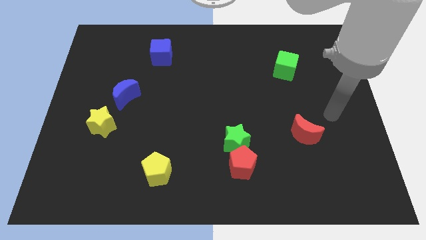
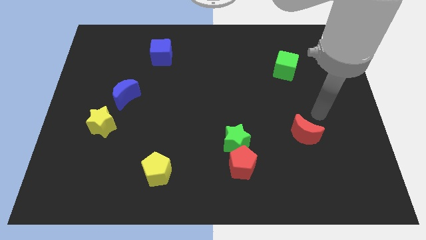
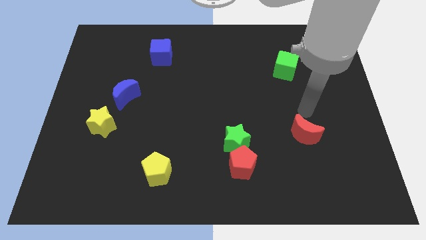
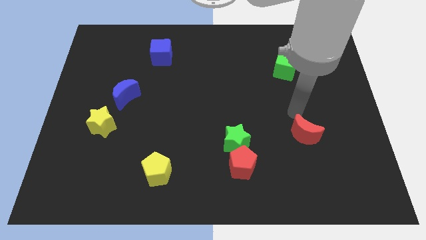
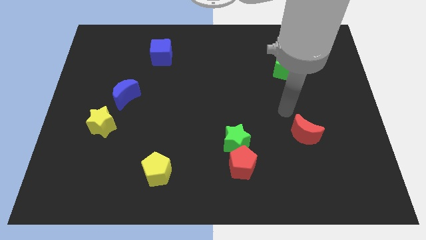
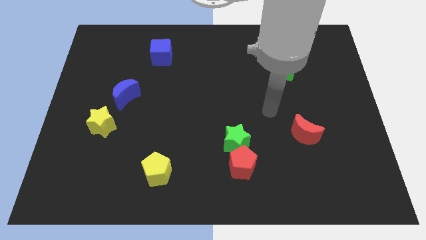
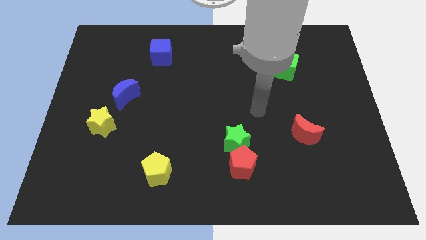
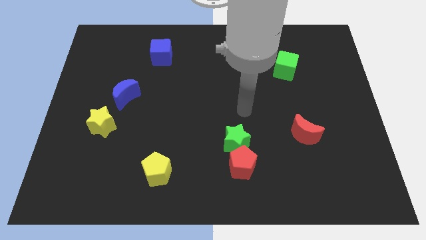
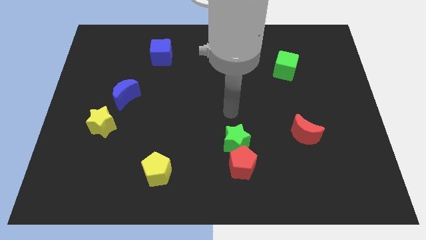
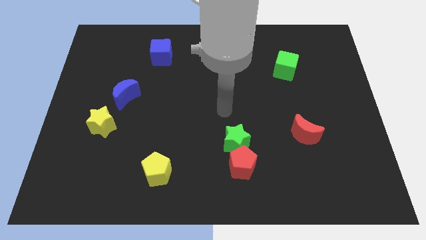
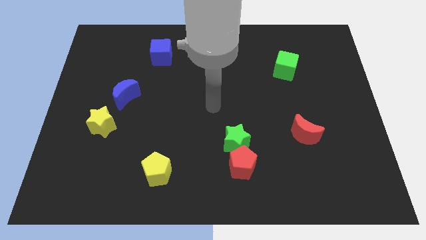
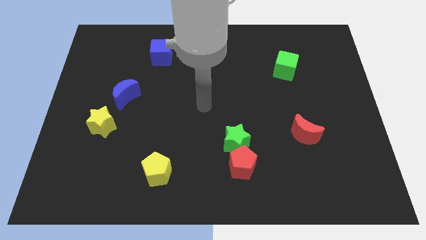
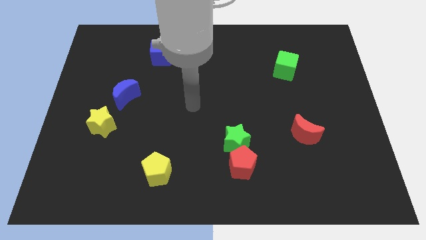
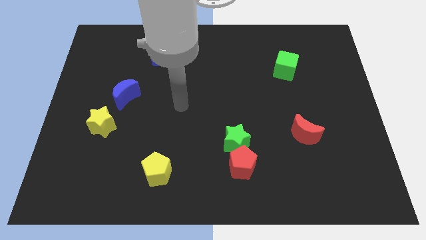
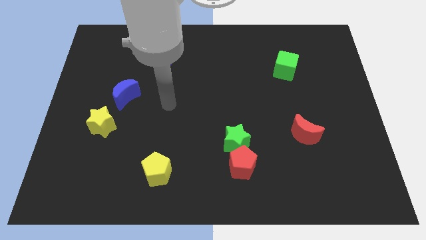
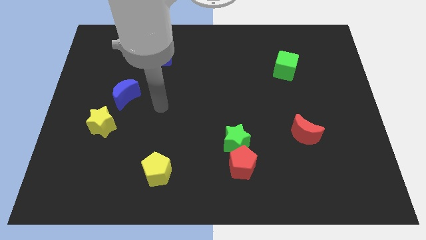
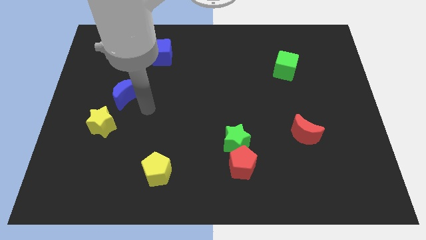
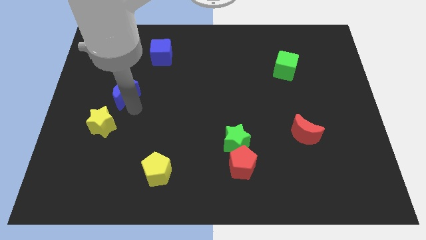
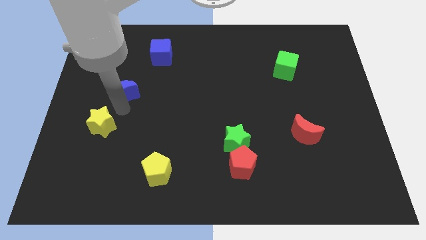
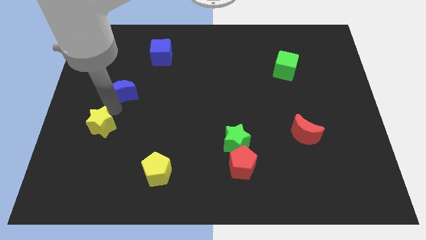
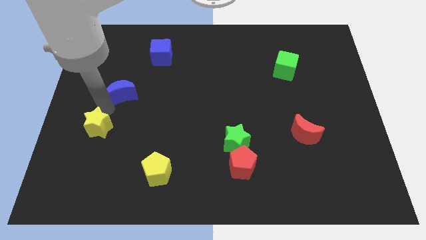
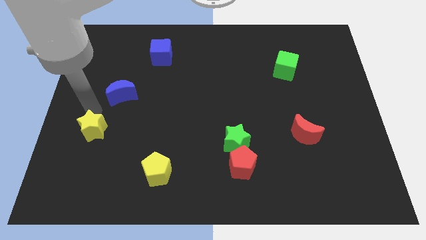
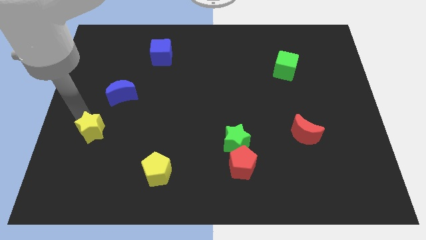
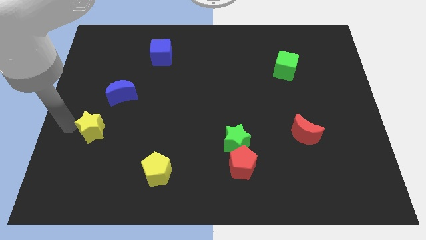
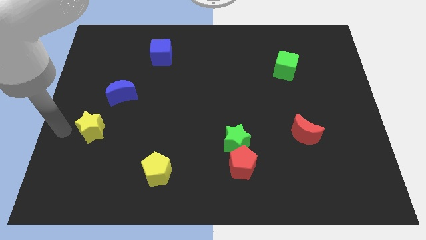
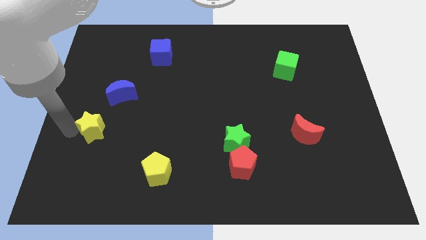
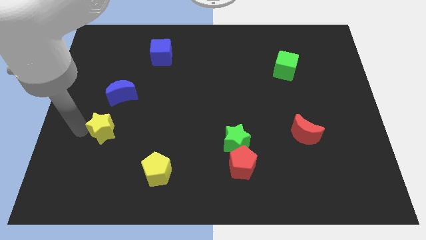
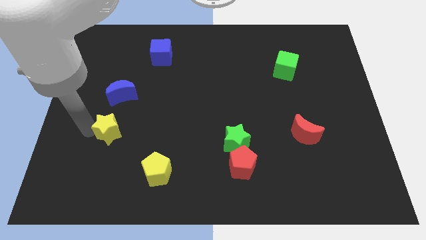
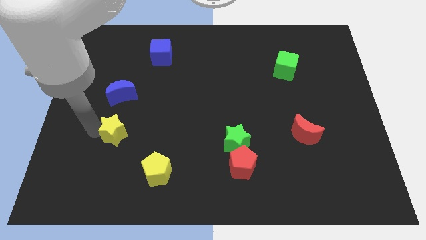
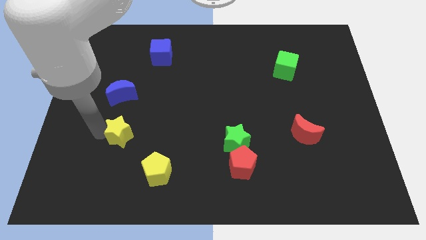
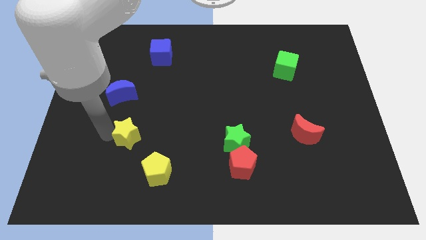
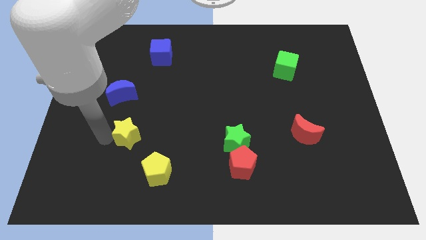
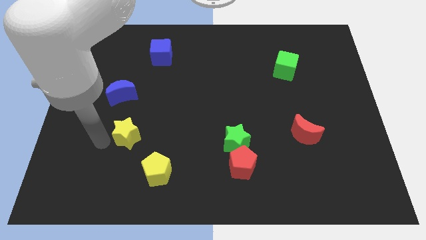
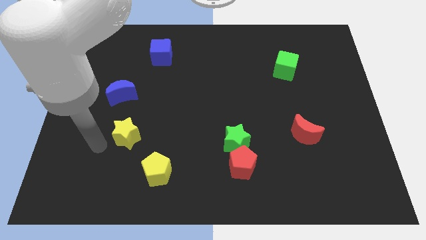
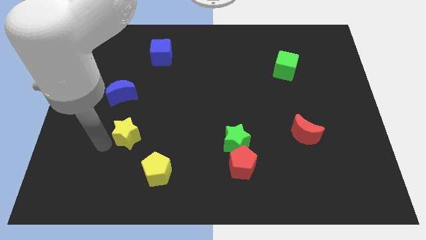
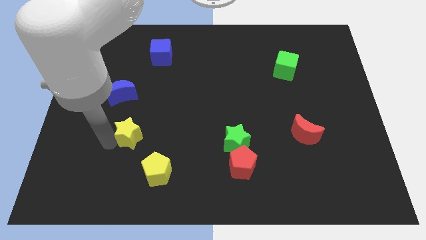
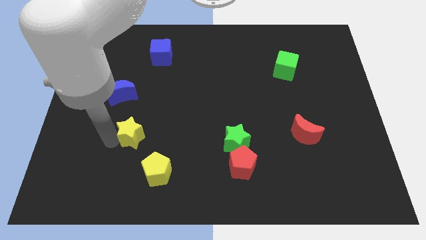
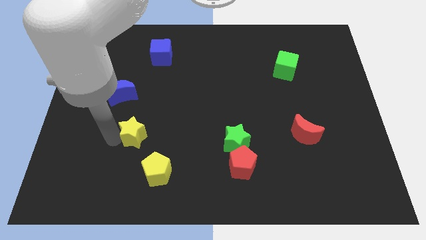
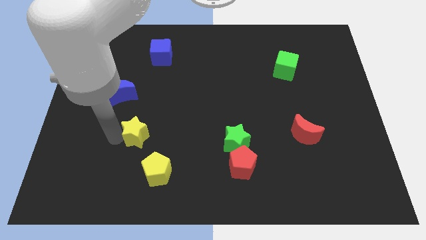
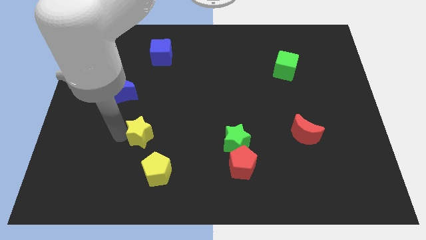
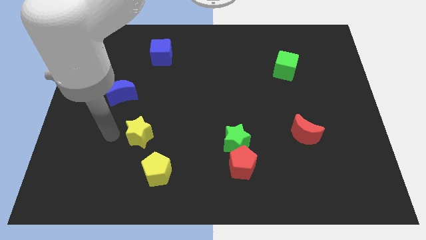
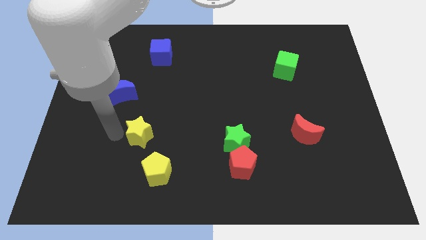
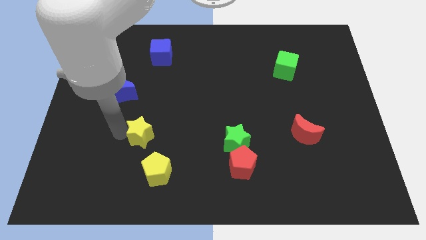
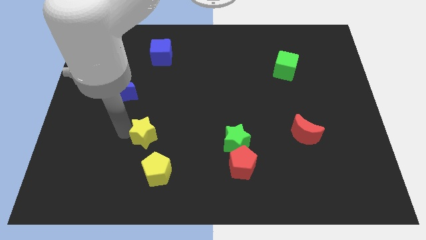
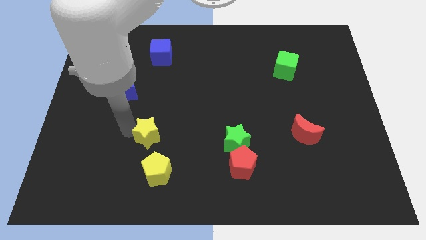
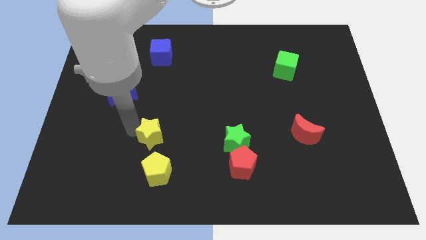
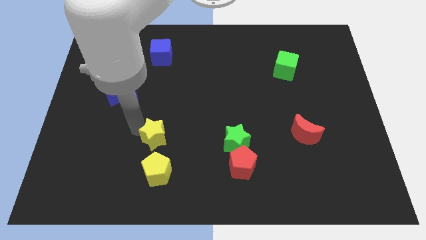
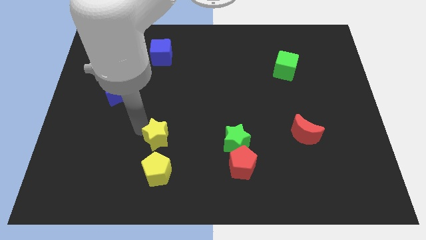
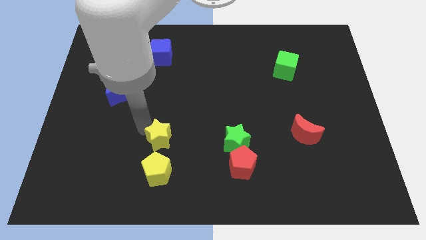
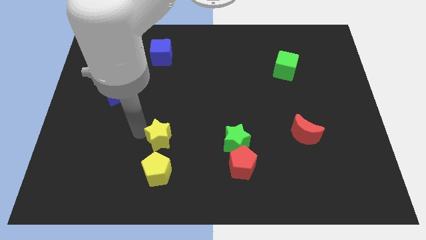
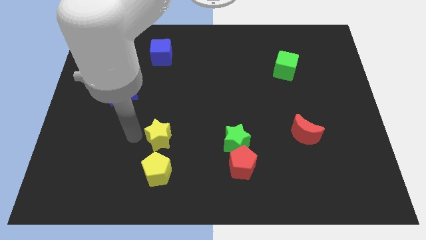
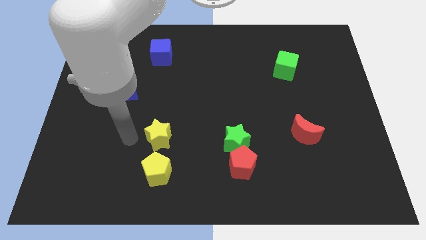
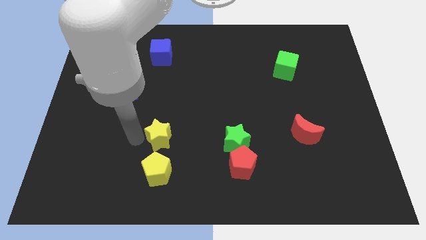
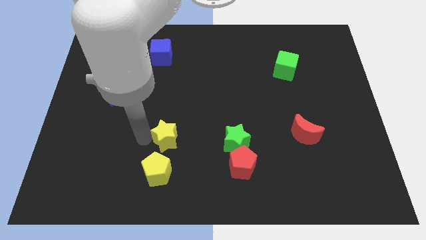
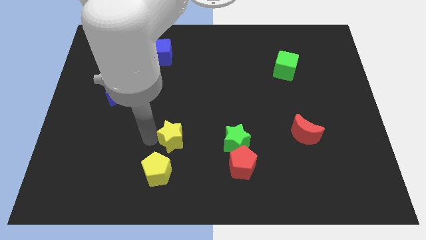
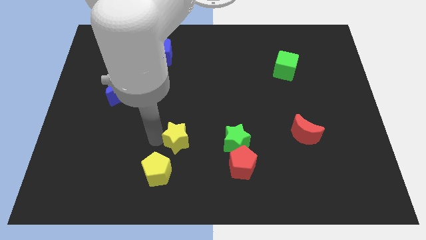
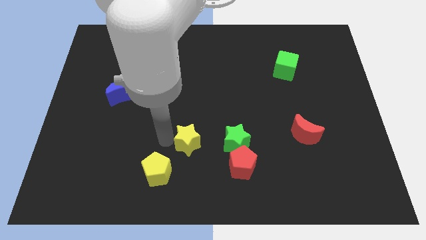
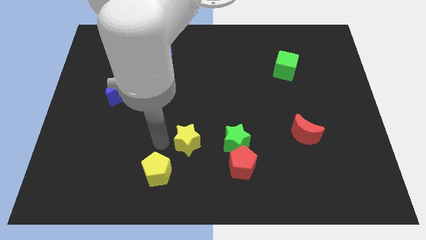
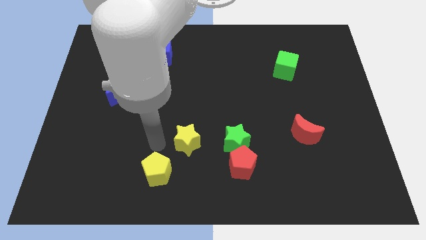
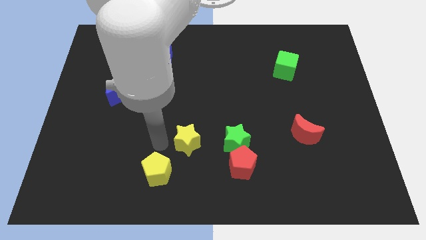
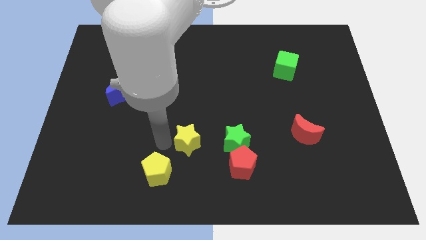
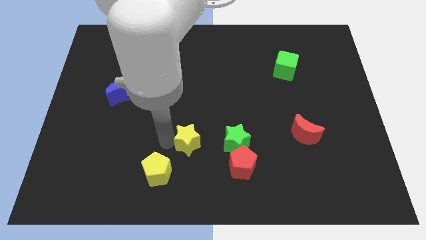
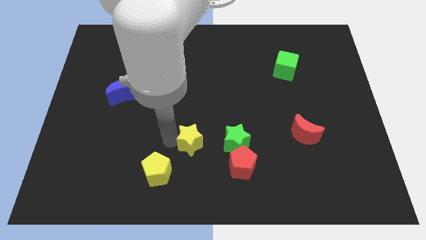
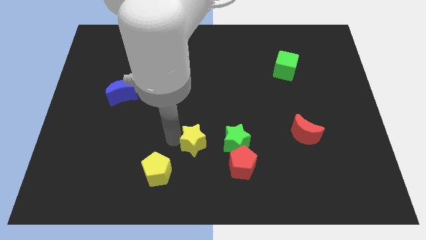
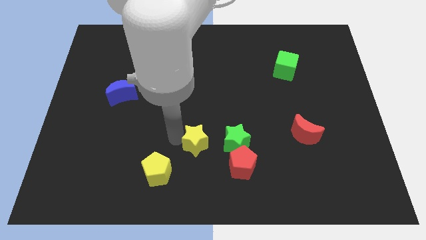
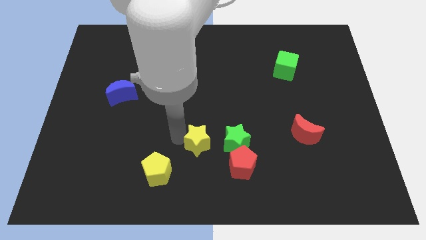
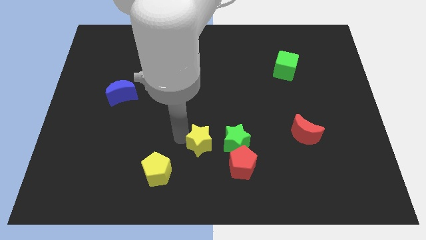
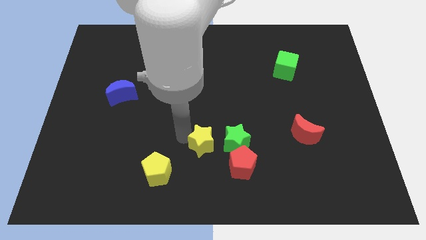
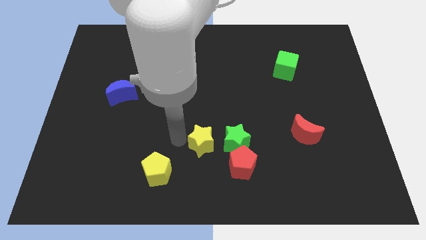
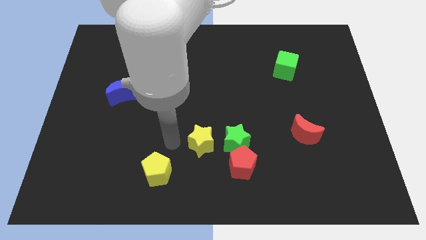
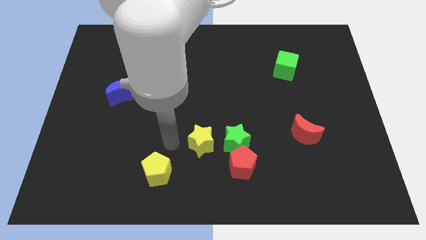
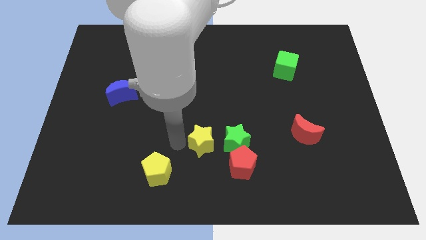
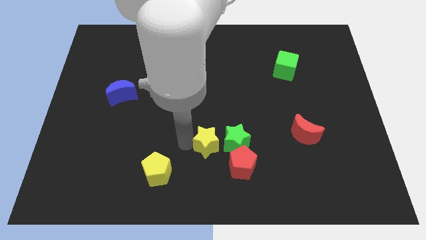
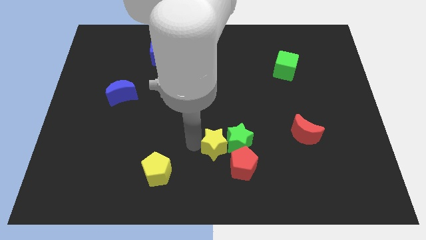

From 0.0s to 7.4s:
slide the yellow star towards the green star
